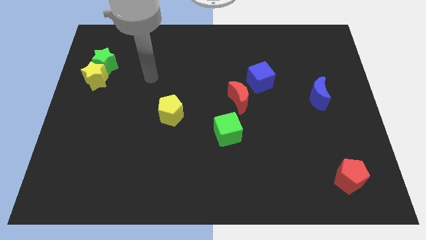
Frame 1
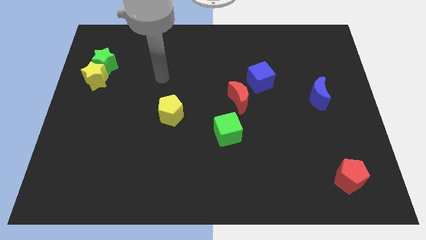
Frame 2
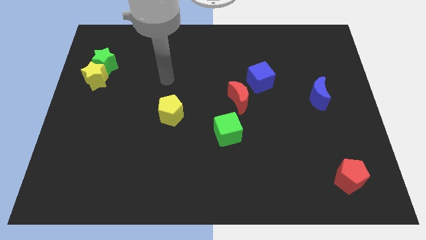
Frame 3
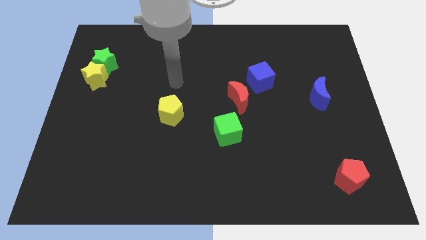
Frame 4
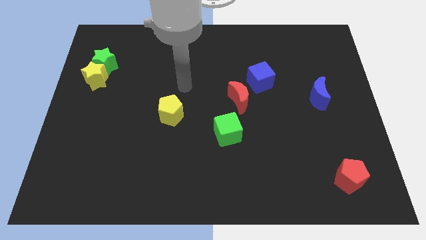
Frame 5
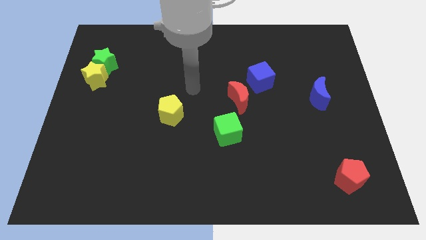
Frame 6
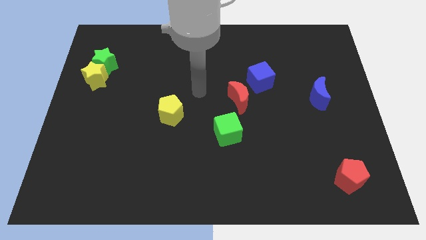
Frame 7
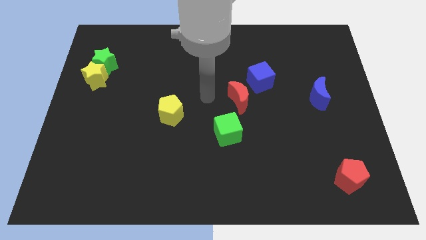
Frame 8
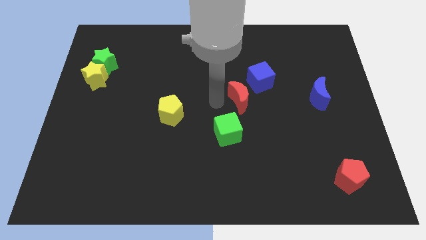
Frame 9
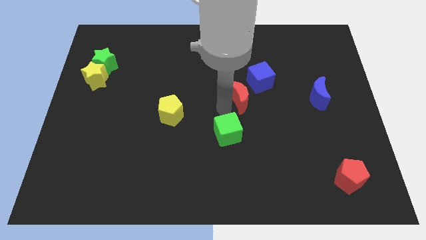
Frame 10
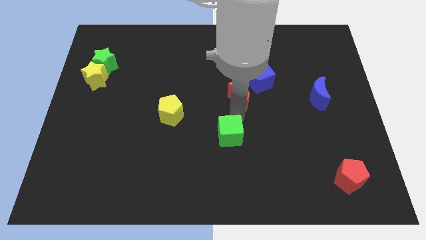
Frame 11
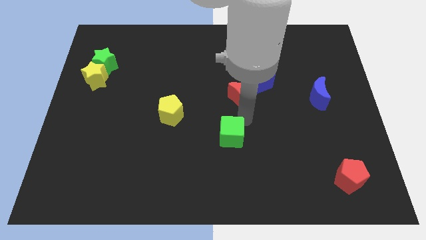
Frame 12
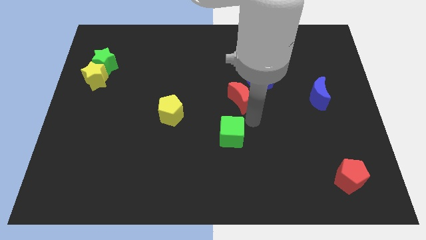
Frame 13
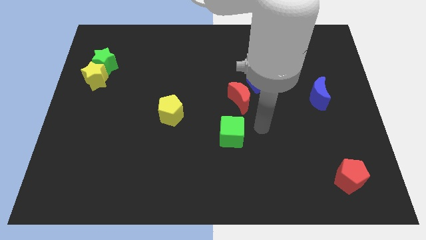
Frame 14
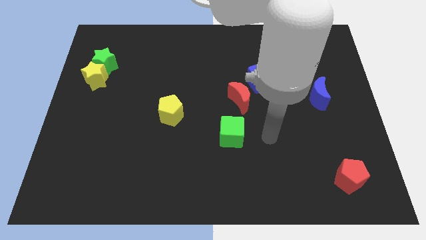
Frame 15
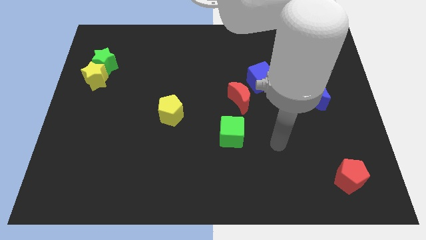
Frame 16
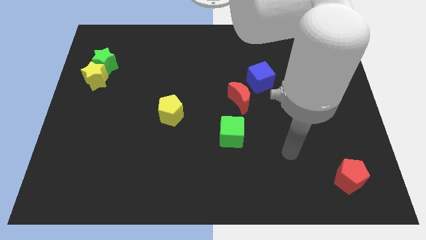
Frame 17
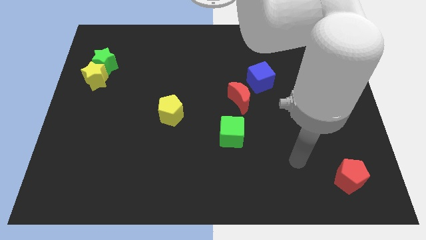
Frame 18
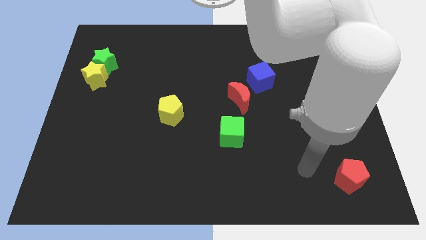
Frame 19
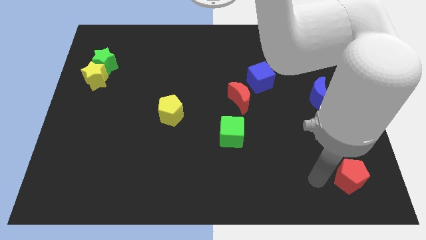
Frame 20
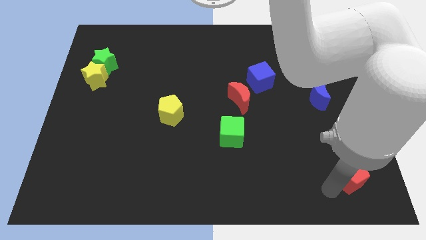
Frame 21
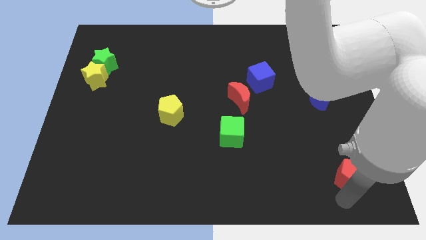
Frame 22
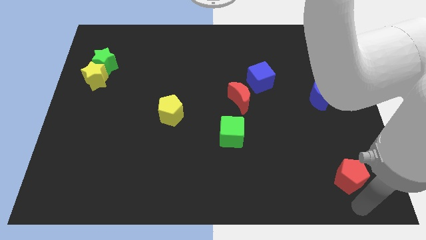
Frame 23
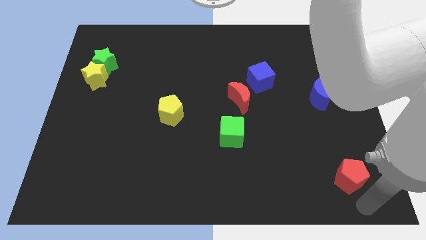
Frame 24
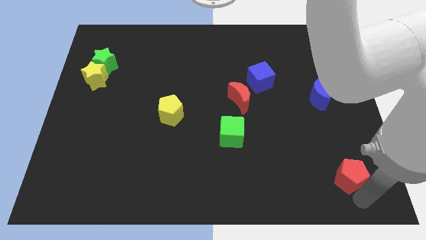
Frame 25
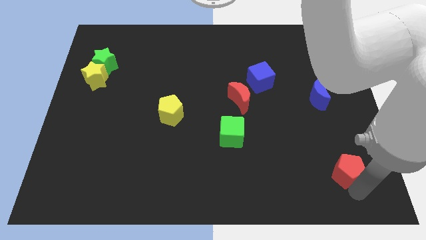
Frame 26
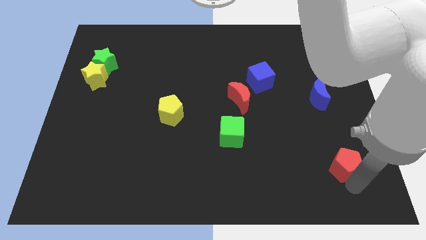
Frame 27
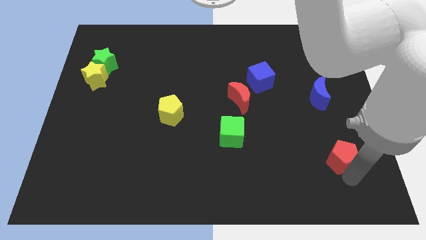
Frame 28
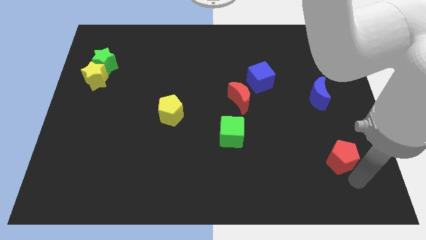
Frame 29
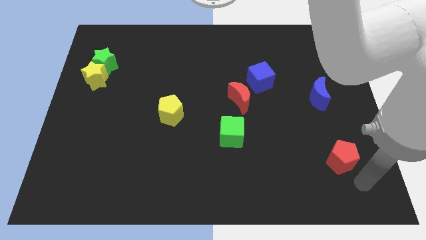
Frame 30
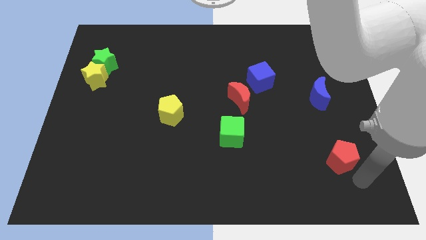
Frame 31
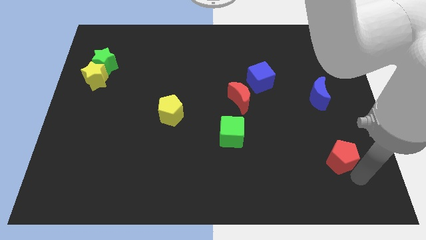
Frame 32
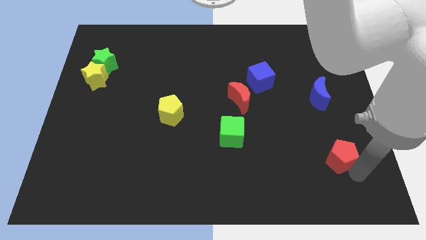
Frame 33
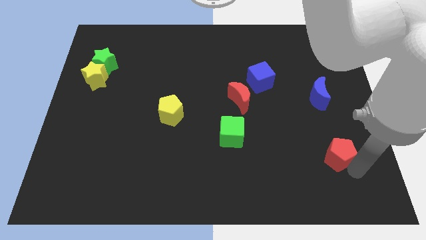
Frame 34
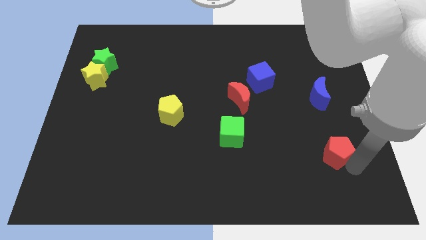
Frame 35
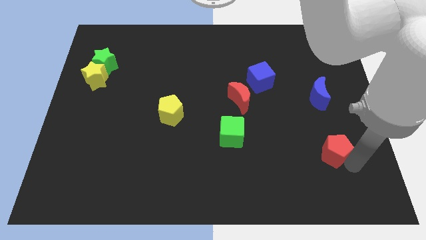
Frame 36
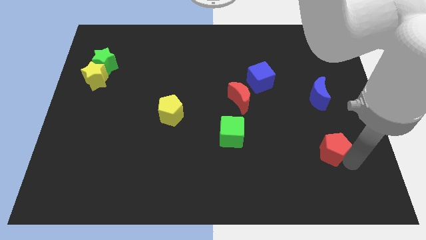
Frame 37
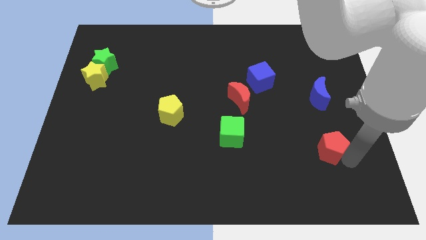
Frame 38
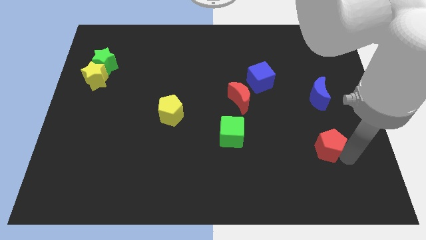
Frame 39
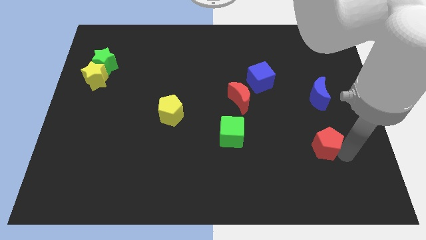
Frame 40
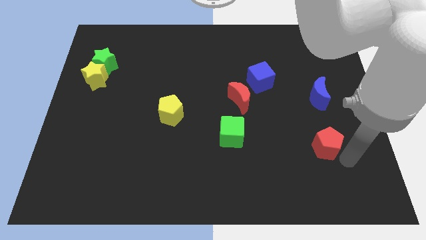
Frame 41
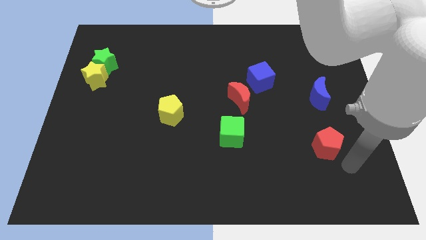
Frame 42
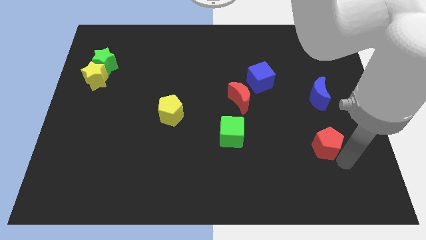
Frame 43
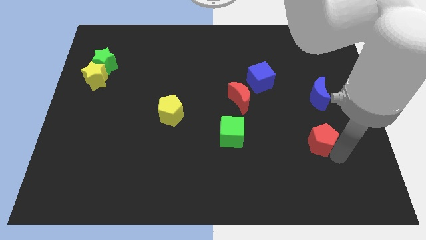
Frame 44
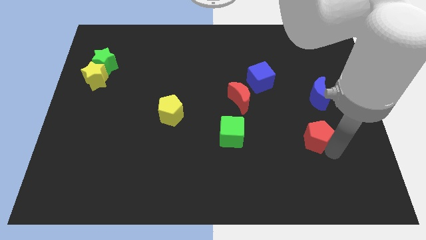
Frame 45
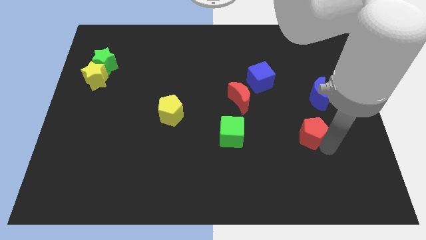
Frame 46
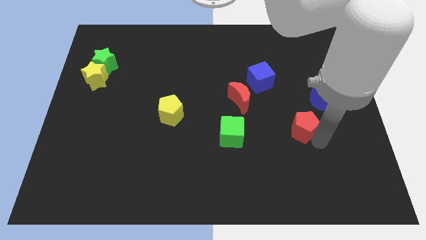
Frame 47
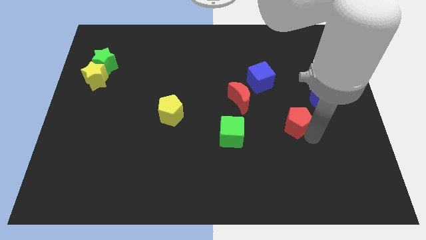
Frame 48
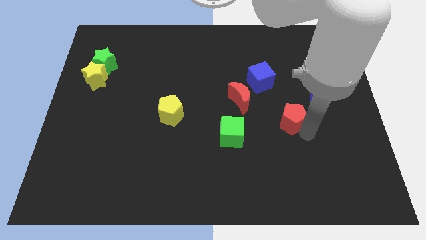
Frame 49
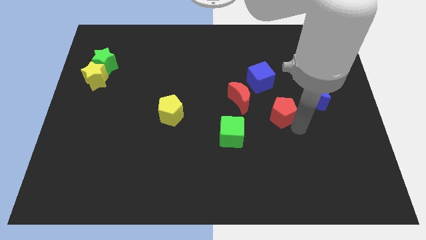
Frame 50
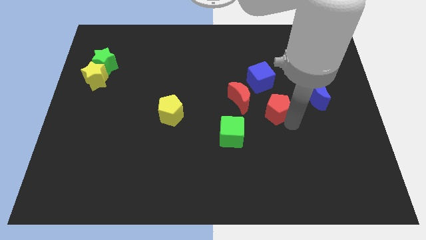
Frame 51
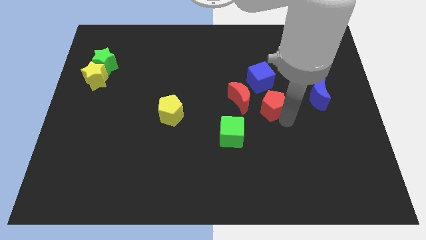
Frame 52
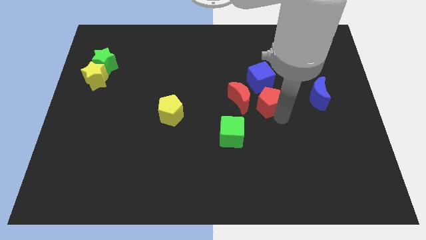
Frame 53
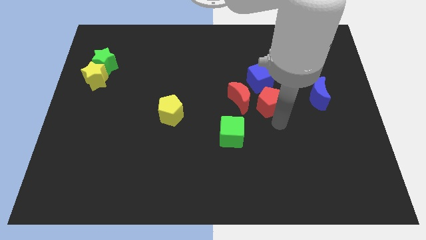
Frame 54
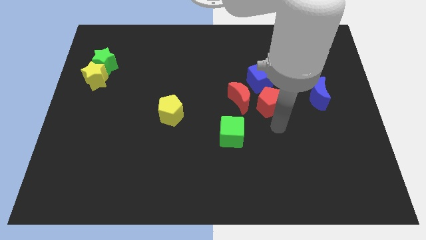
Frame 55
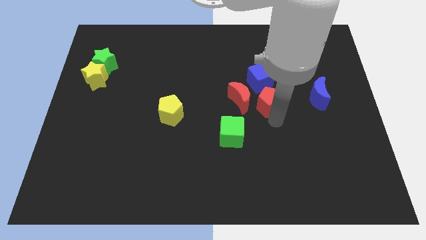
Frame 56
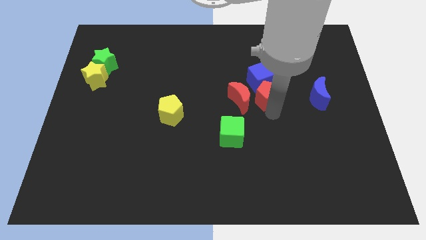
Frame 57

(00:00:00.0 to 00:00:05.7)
put the red pentagon towards the blue cube

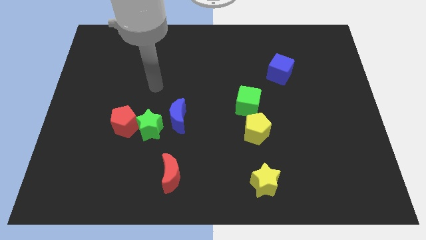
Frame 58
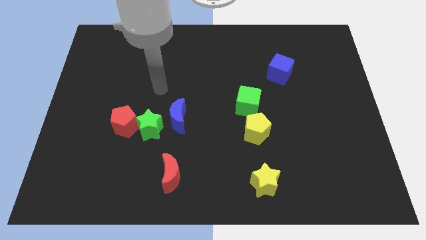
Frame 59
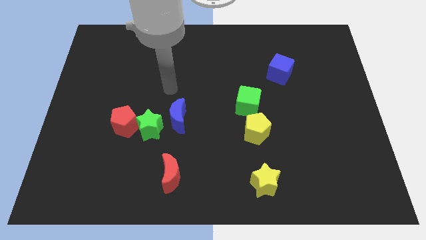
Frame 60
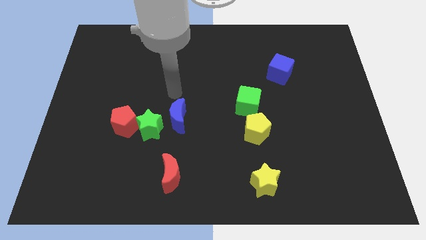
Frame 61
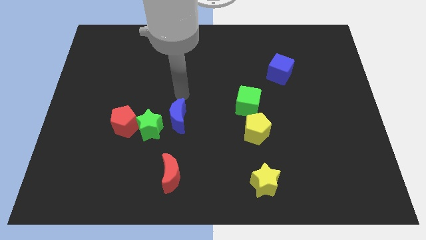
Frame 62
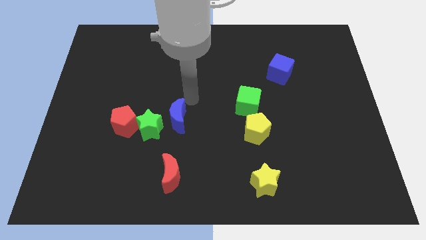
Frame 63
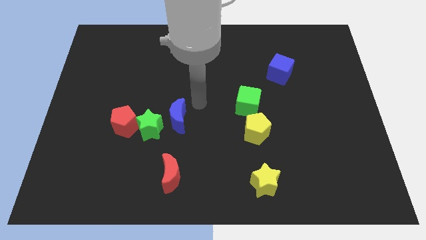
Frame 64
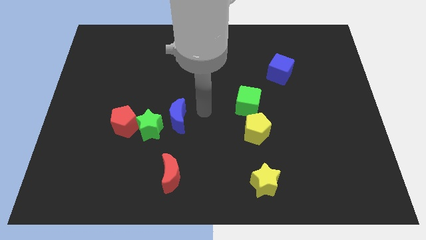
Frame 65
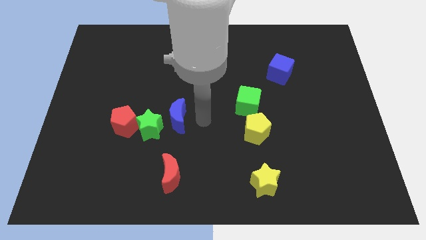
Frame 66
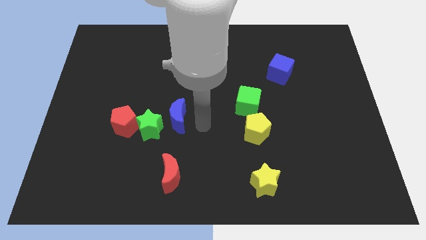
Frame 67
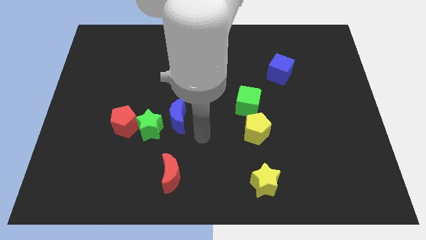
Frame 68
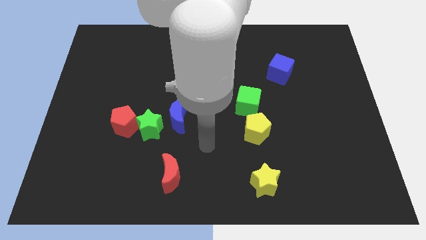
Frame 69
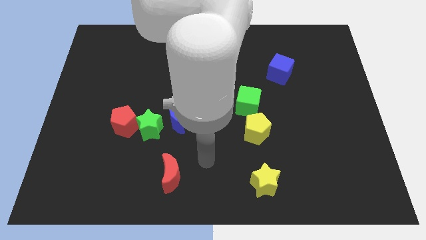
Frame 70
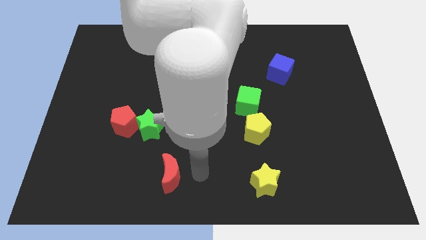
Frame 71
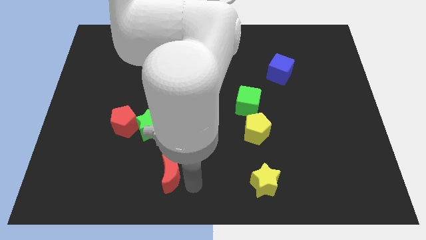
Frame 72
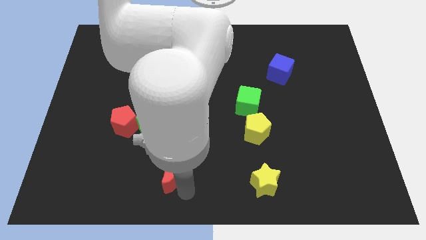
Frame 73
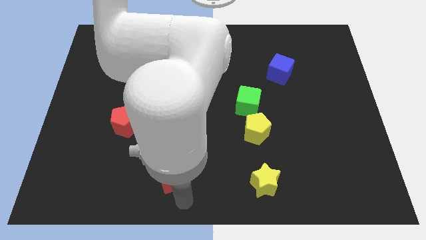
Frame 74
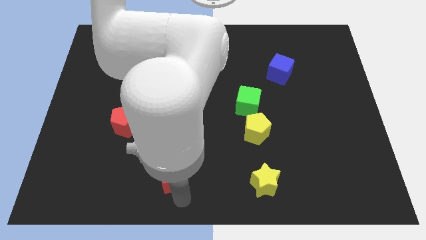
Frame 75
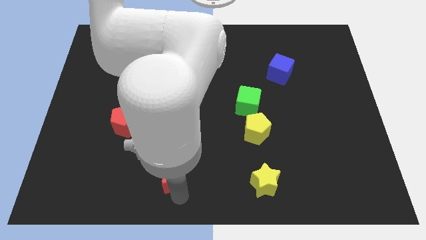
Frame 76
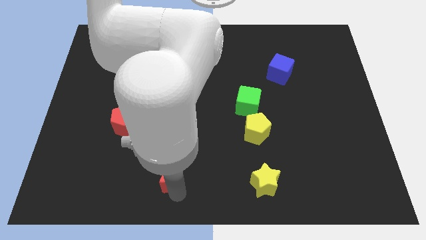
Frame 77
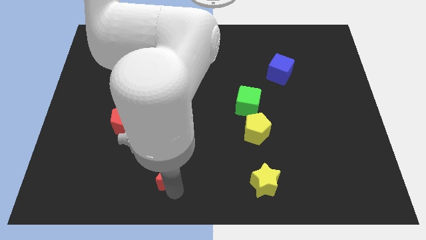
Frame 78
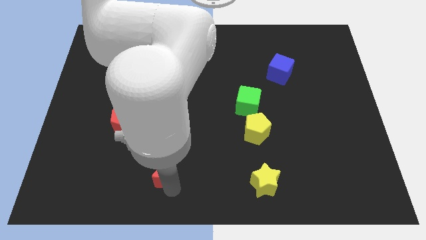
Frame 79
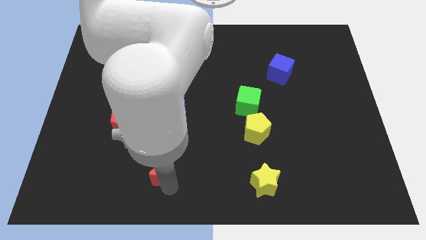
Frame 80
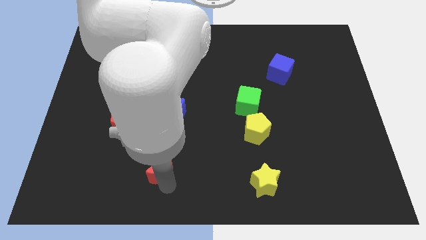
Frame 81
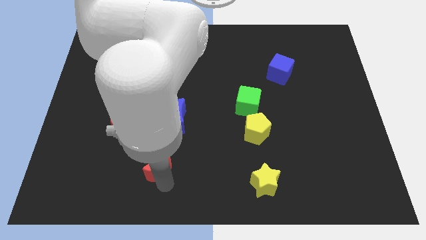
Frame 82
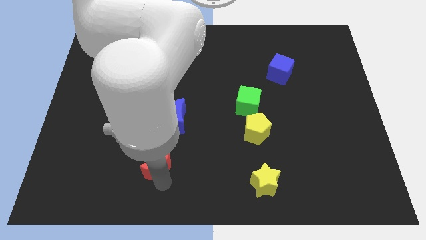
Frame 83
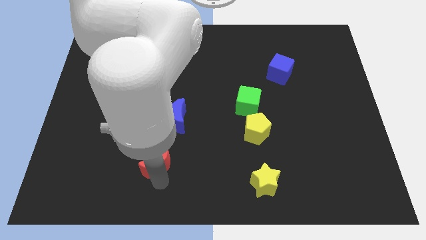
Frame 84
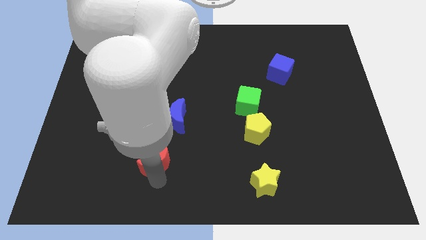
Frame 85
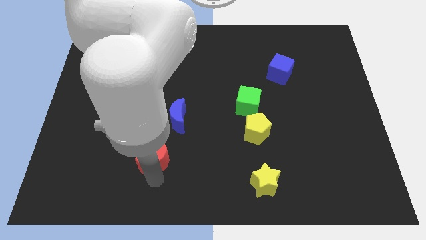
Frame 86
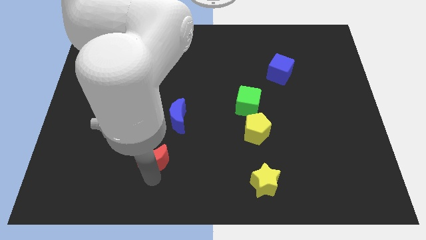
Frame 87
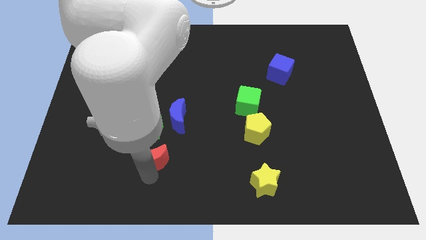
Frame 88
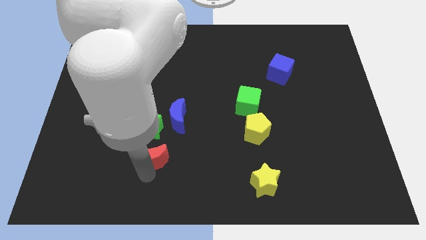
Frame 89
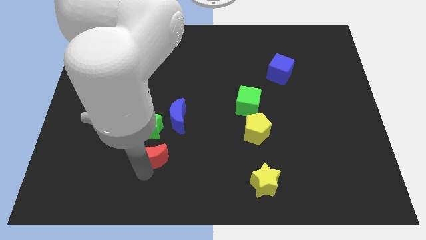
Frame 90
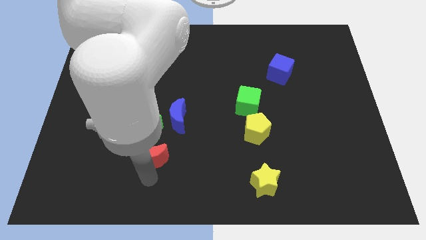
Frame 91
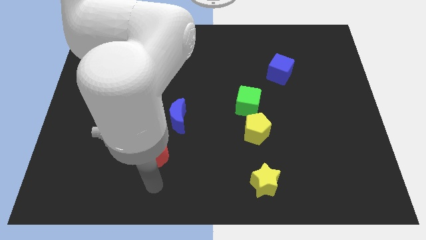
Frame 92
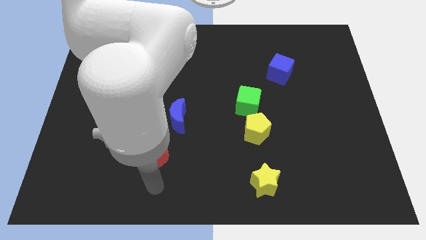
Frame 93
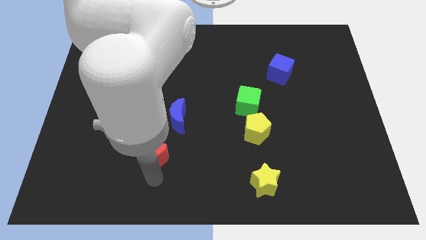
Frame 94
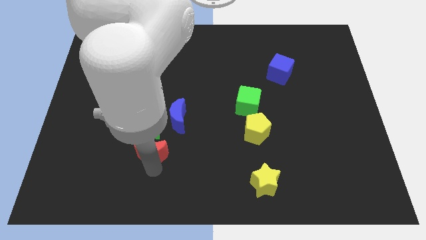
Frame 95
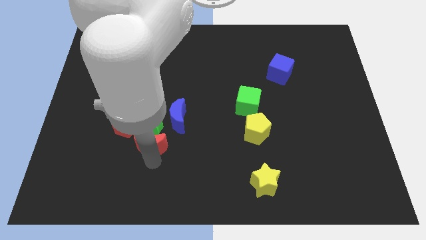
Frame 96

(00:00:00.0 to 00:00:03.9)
push the red moon next to the green star
